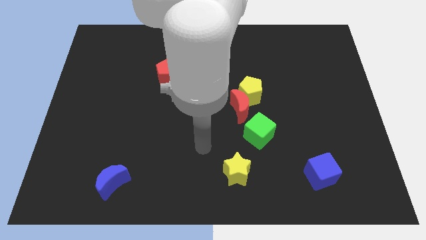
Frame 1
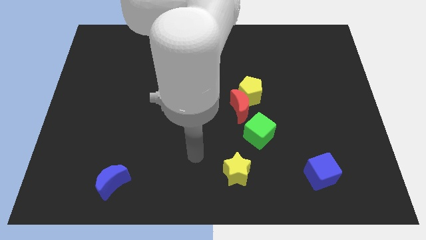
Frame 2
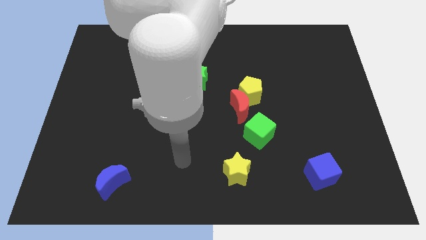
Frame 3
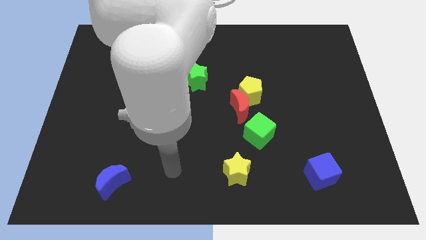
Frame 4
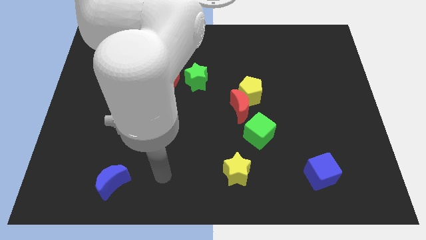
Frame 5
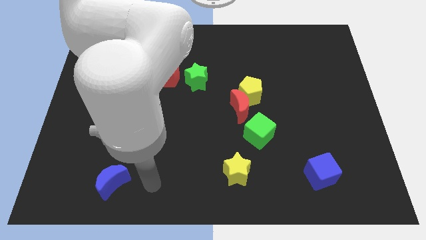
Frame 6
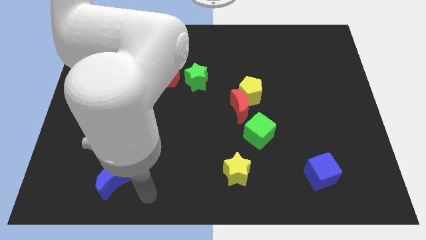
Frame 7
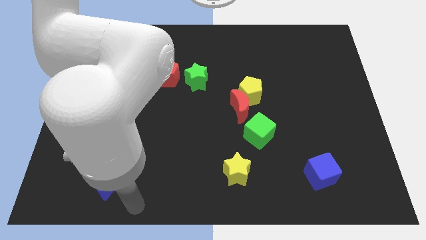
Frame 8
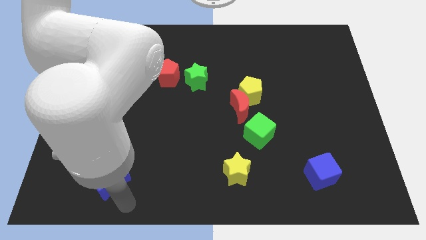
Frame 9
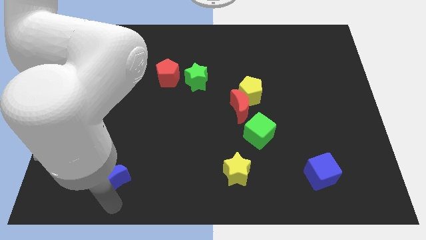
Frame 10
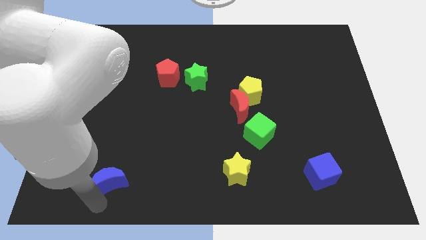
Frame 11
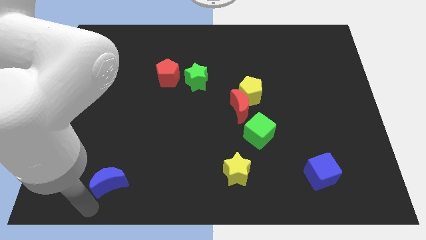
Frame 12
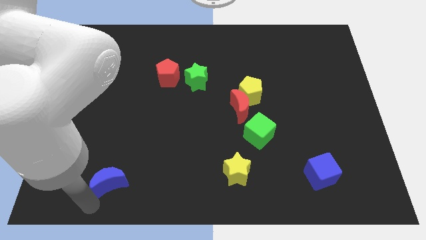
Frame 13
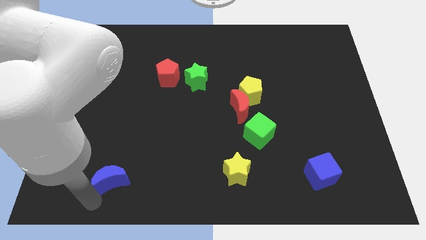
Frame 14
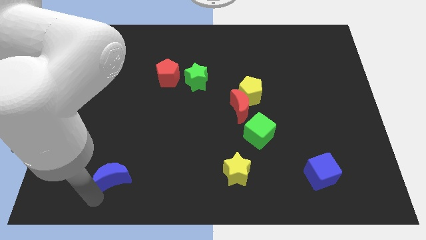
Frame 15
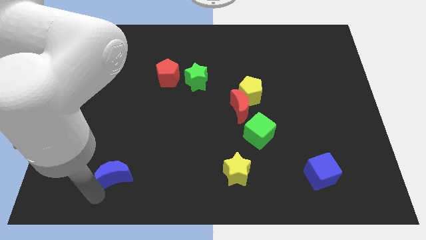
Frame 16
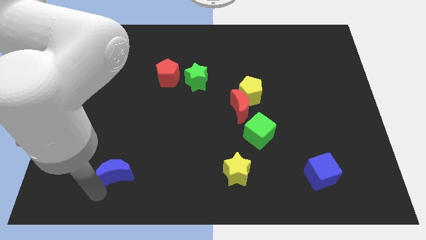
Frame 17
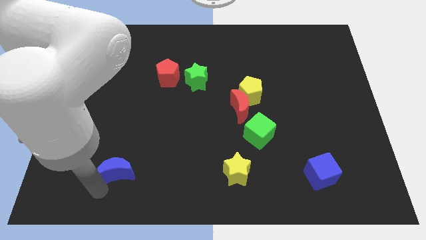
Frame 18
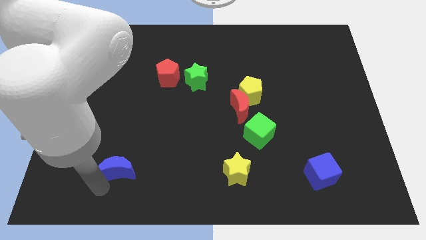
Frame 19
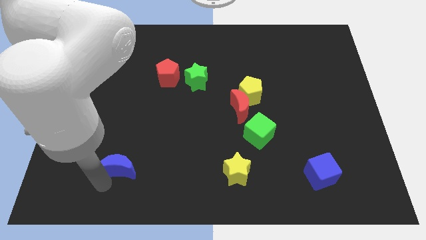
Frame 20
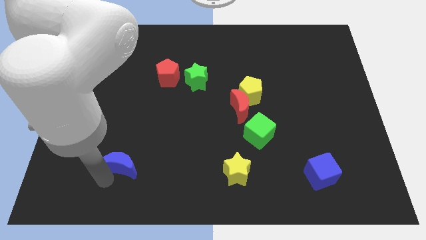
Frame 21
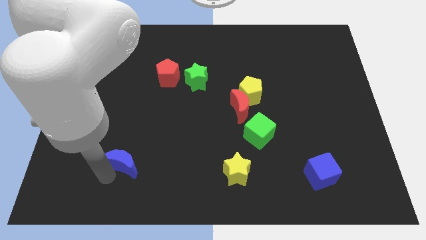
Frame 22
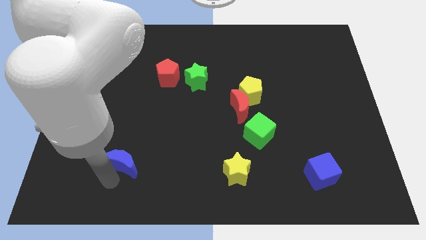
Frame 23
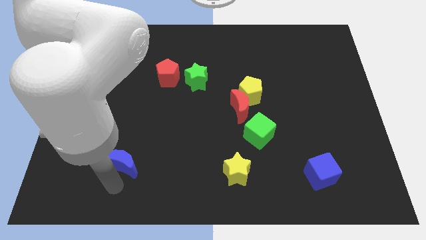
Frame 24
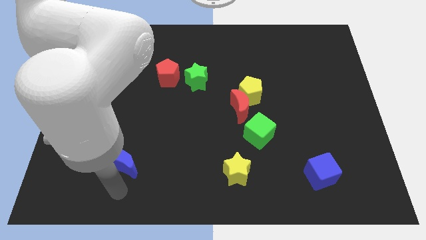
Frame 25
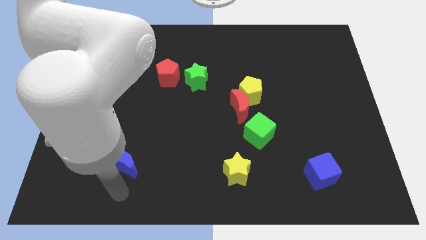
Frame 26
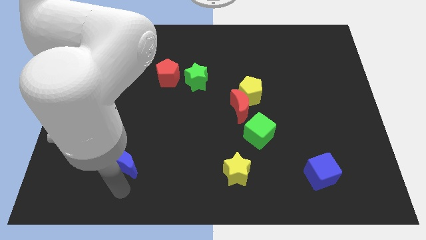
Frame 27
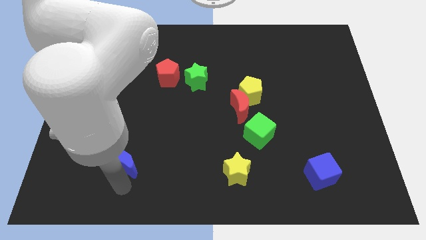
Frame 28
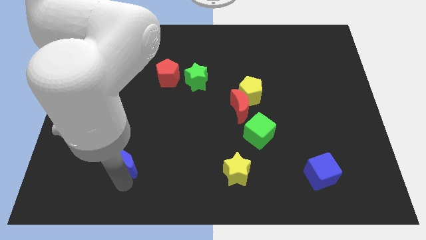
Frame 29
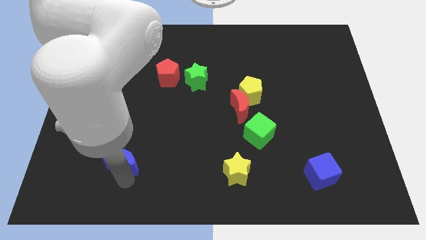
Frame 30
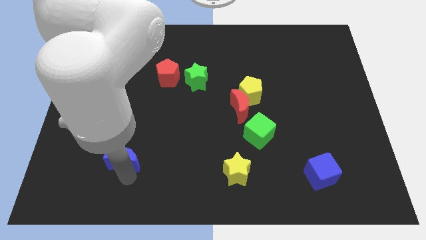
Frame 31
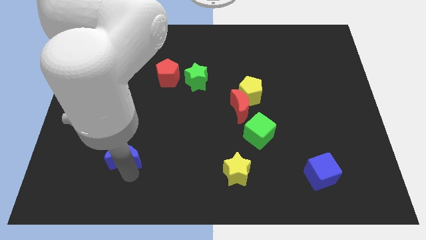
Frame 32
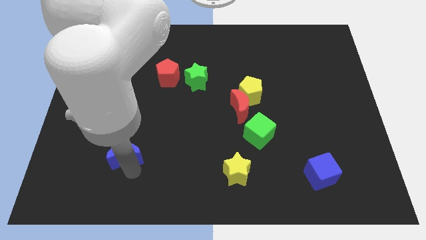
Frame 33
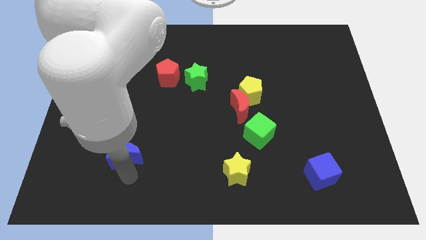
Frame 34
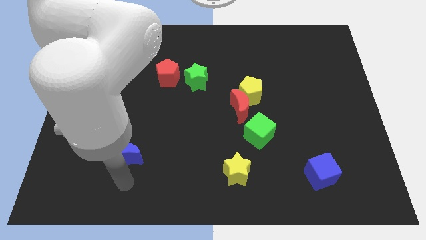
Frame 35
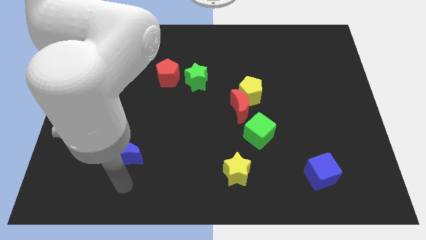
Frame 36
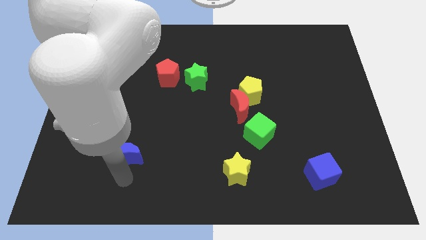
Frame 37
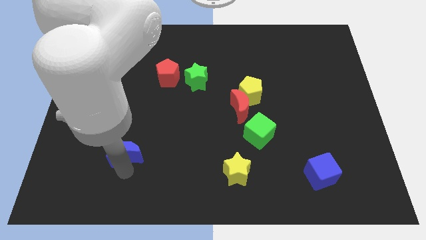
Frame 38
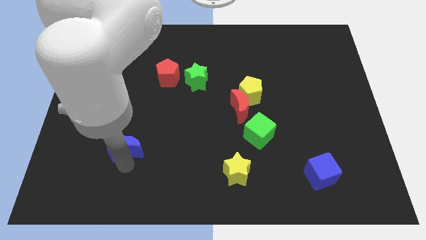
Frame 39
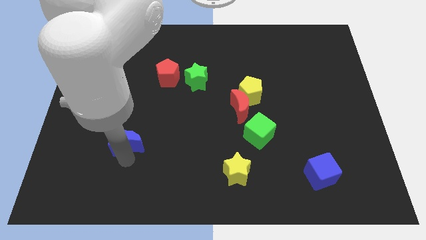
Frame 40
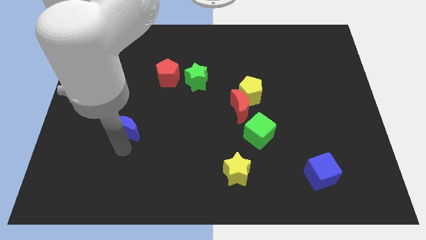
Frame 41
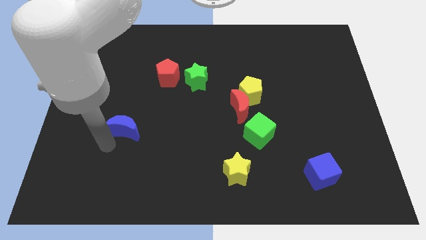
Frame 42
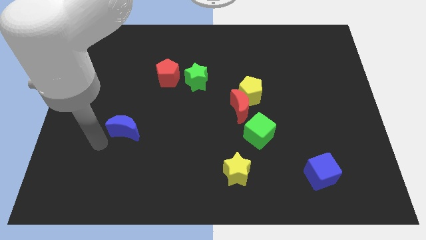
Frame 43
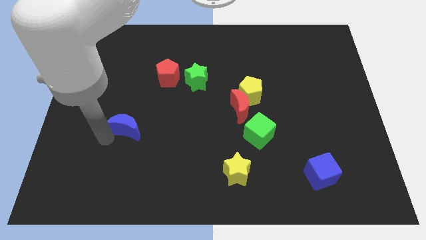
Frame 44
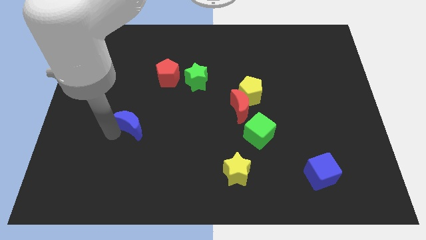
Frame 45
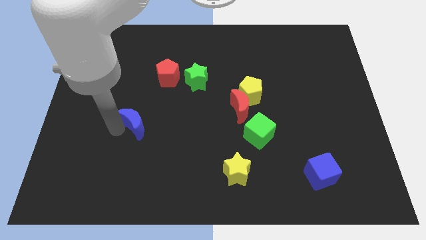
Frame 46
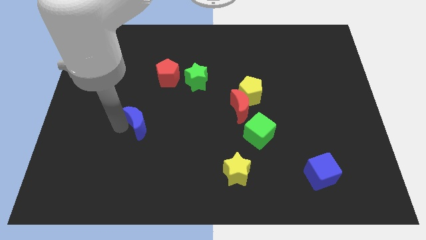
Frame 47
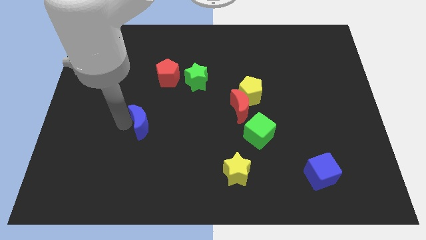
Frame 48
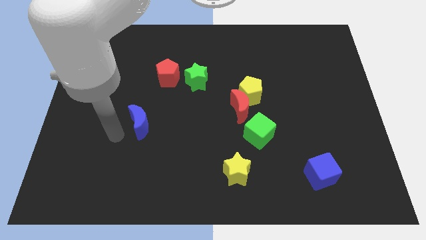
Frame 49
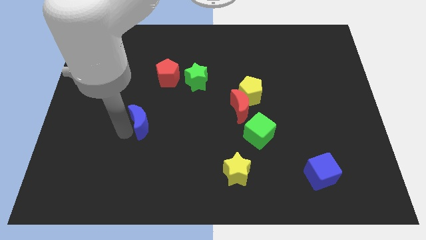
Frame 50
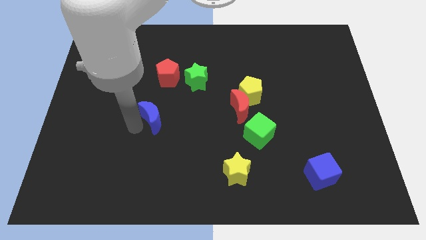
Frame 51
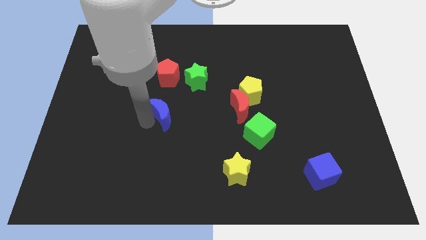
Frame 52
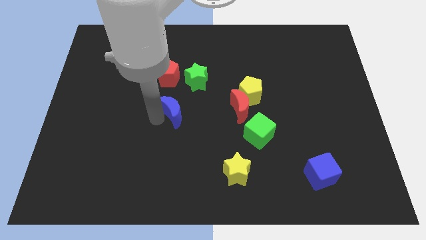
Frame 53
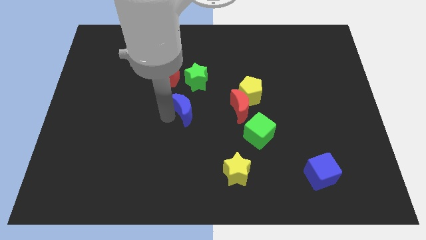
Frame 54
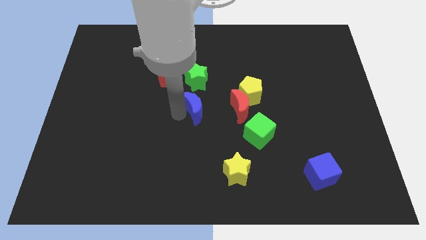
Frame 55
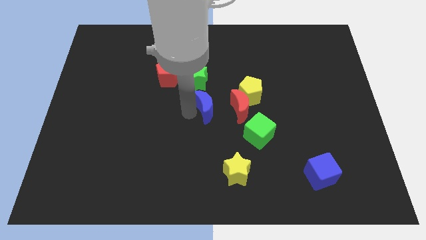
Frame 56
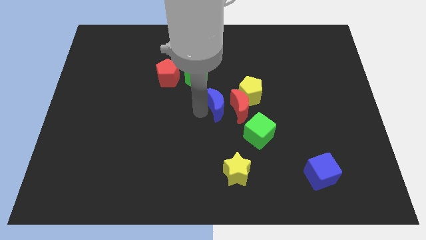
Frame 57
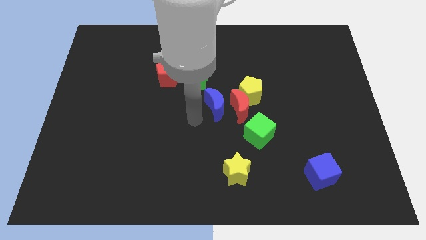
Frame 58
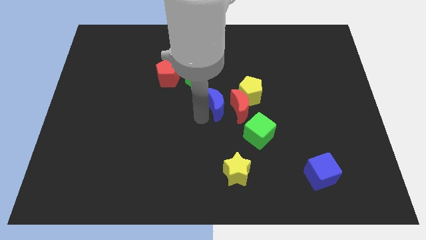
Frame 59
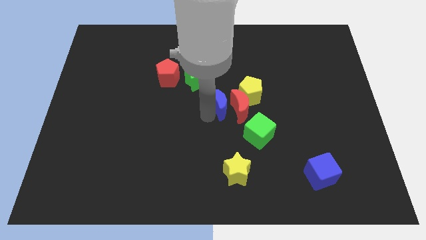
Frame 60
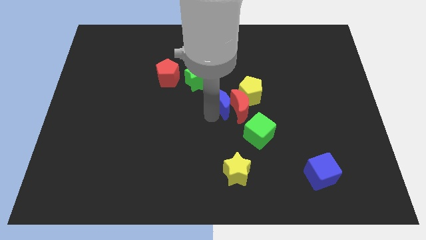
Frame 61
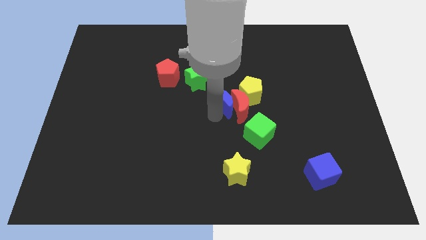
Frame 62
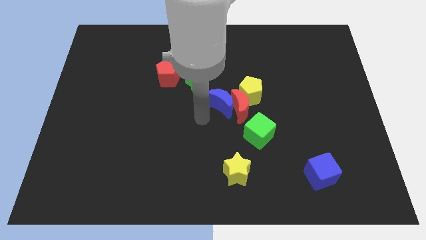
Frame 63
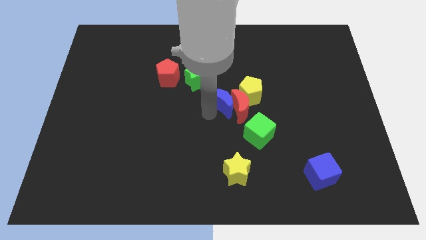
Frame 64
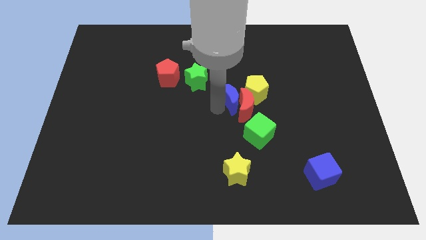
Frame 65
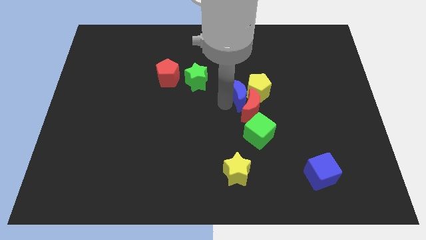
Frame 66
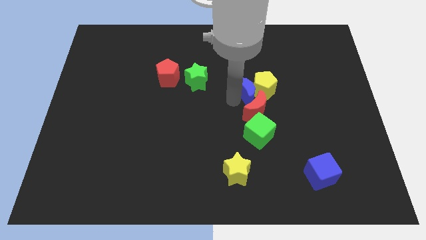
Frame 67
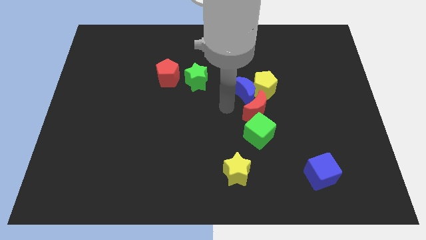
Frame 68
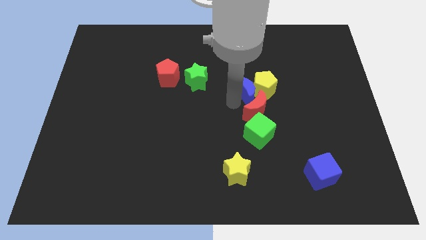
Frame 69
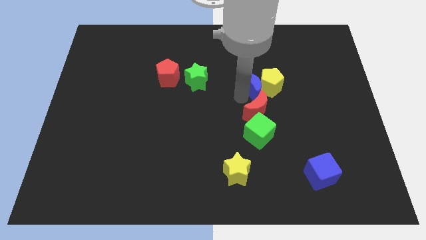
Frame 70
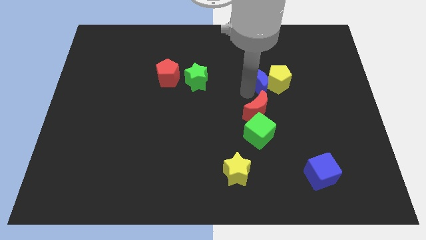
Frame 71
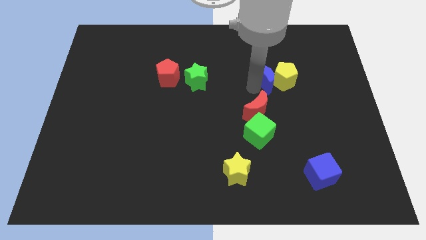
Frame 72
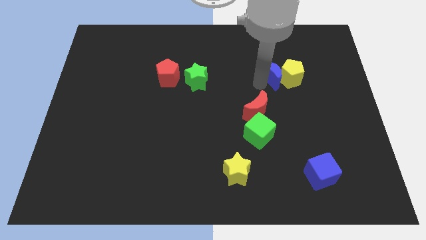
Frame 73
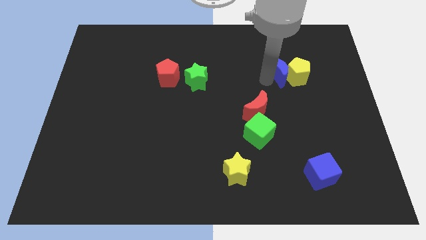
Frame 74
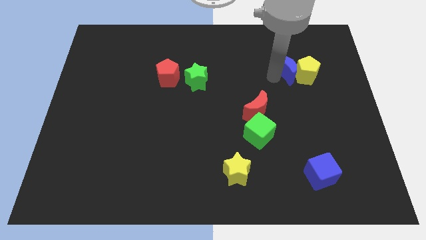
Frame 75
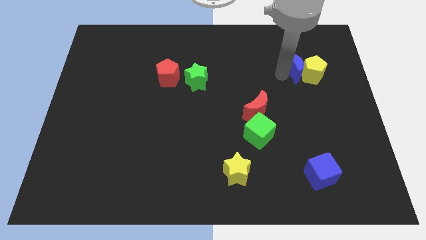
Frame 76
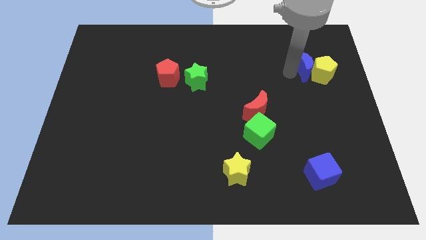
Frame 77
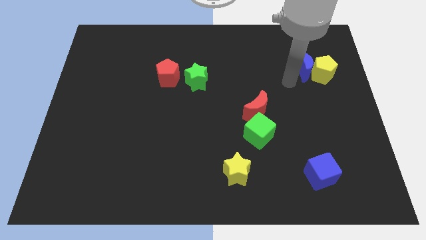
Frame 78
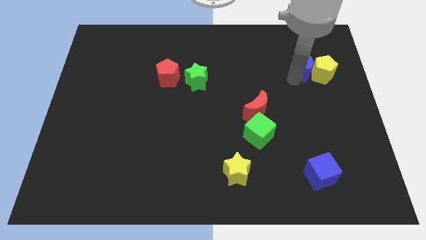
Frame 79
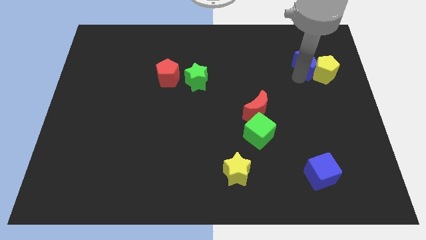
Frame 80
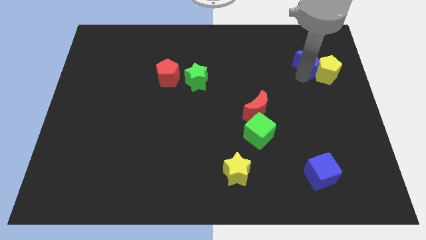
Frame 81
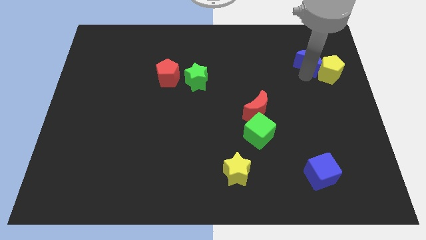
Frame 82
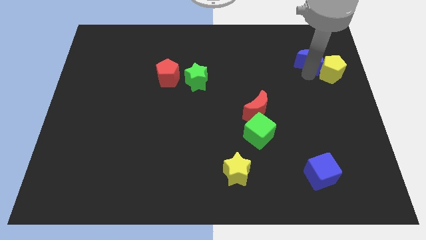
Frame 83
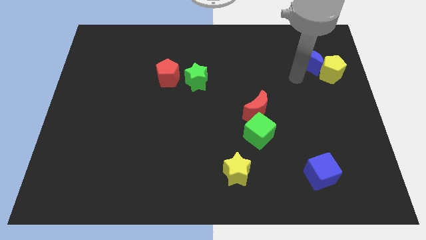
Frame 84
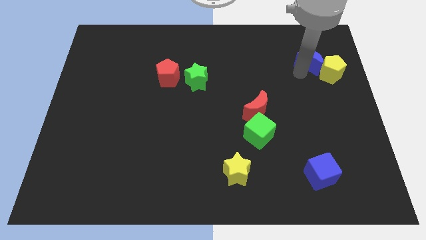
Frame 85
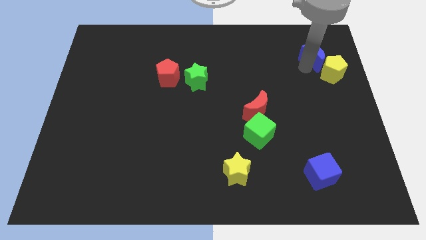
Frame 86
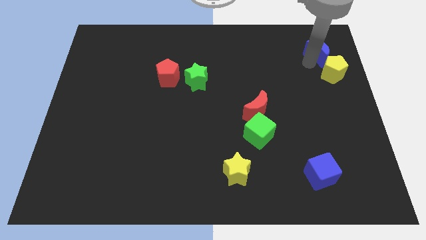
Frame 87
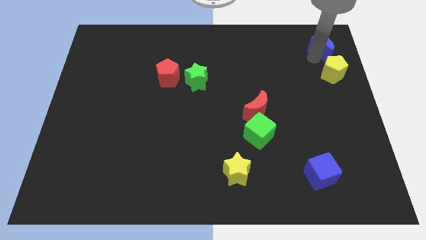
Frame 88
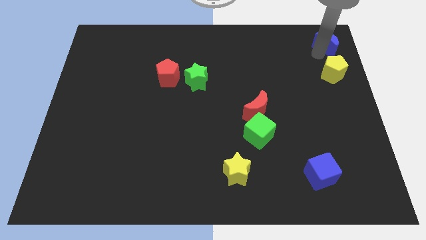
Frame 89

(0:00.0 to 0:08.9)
slide the blue moon to the top right of the board
